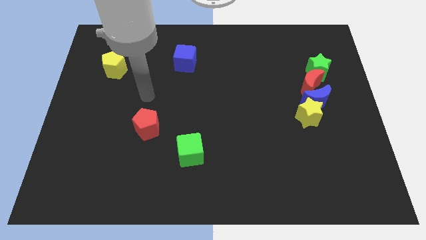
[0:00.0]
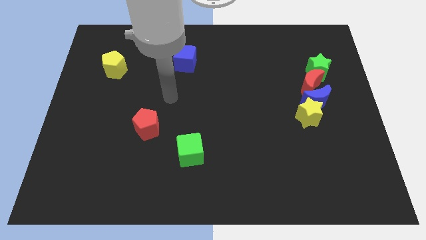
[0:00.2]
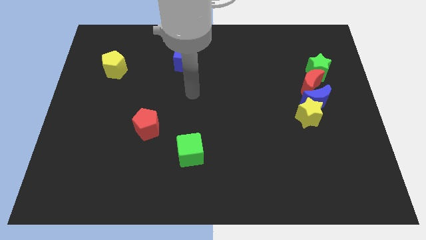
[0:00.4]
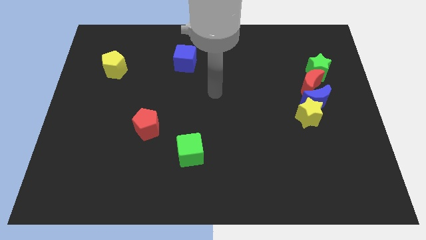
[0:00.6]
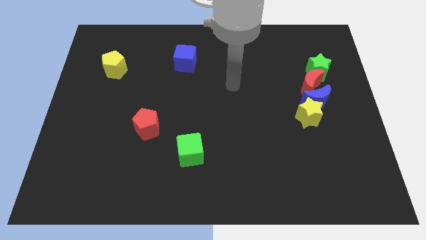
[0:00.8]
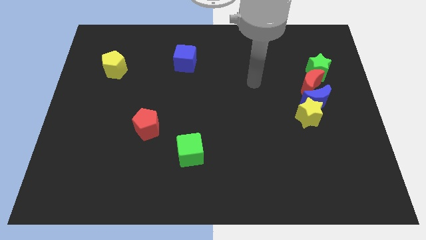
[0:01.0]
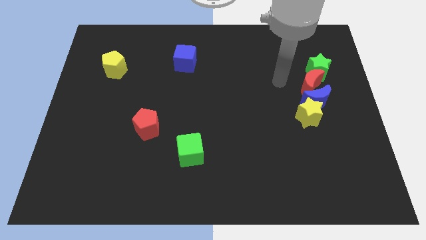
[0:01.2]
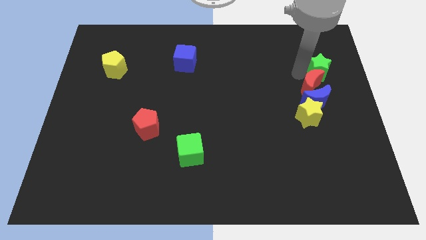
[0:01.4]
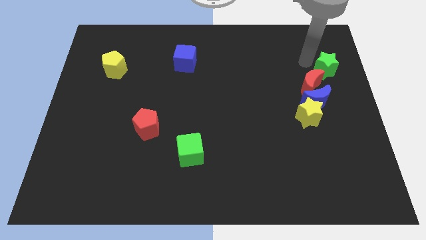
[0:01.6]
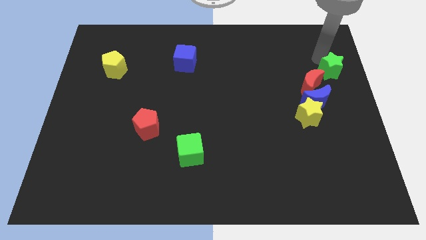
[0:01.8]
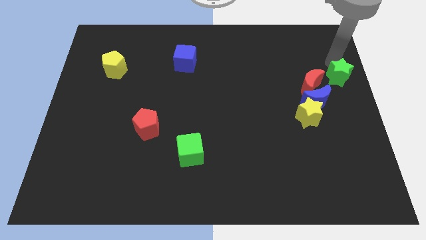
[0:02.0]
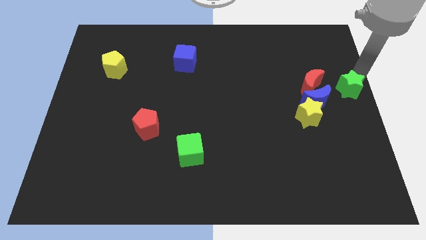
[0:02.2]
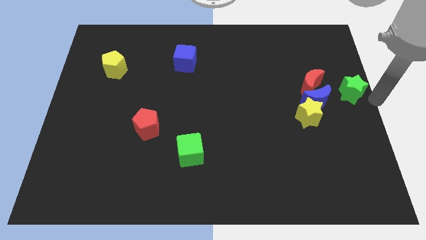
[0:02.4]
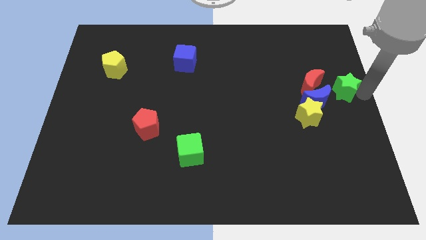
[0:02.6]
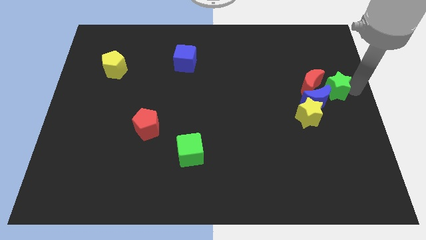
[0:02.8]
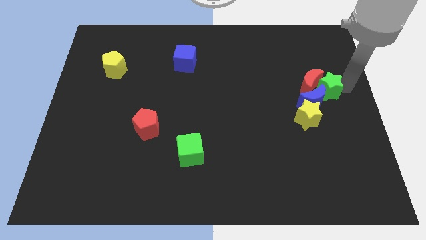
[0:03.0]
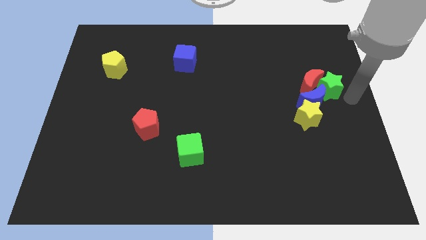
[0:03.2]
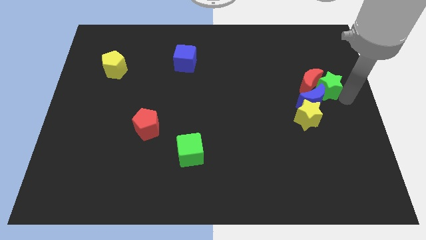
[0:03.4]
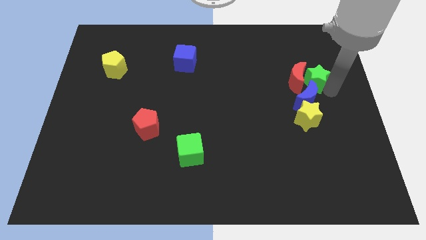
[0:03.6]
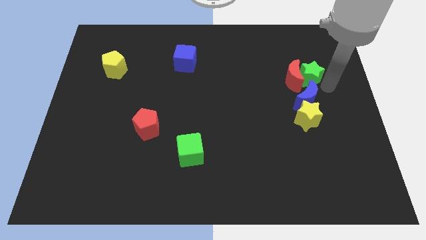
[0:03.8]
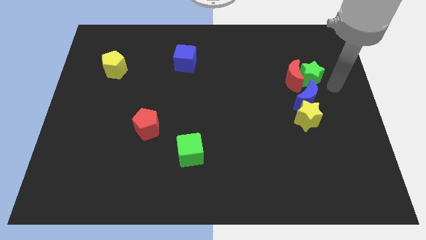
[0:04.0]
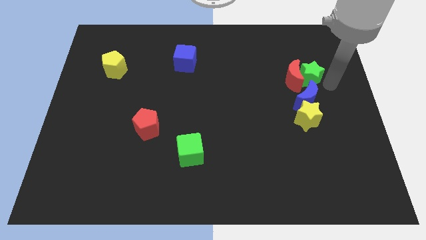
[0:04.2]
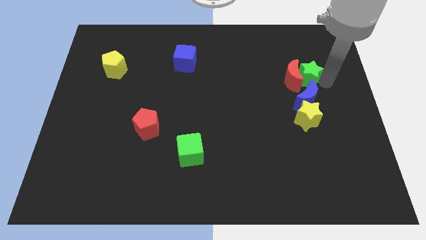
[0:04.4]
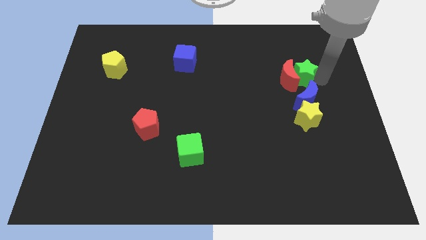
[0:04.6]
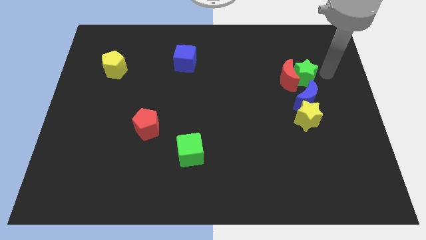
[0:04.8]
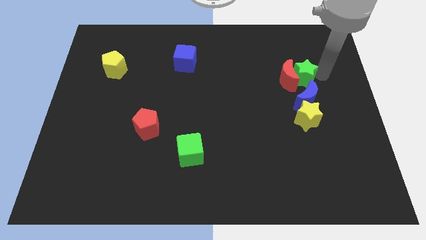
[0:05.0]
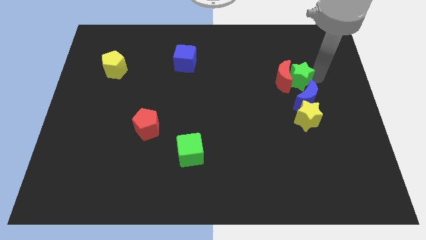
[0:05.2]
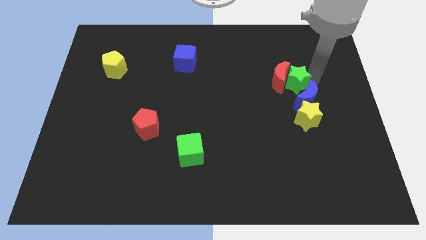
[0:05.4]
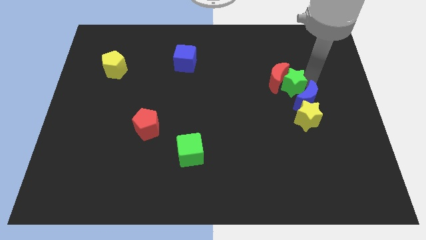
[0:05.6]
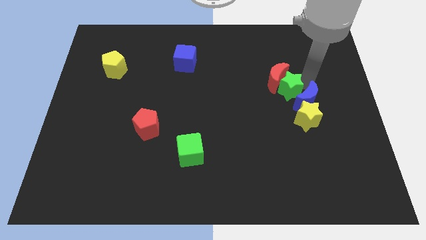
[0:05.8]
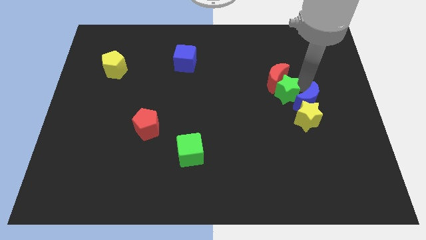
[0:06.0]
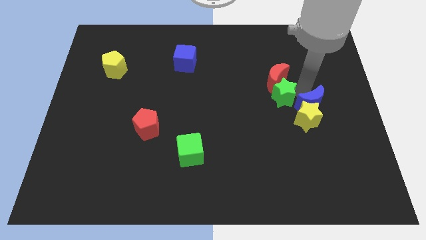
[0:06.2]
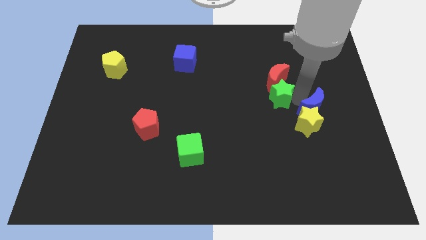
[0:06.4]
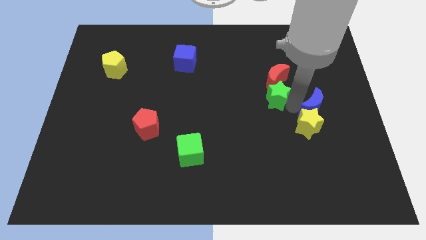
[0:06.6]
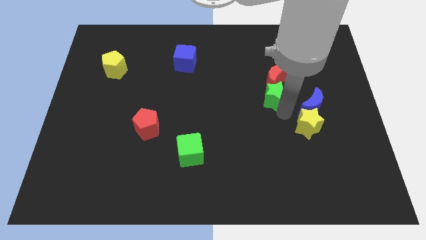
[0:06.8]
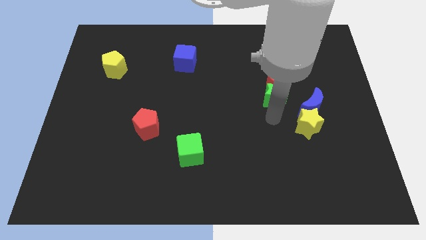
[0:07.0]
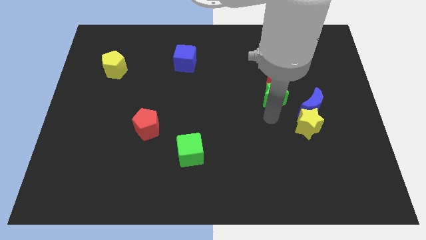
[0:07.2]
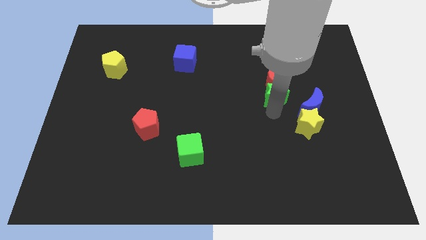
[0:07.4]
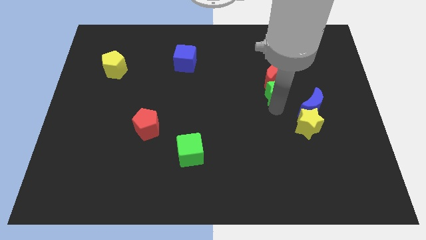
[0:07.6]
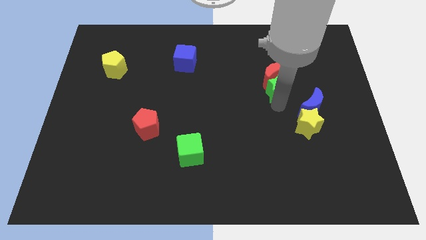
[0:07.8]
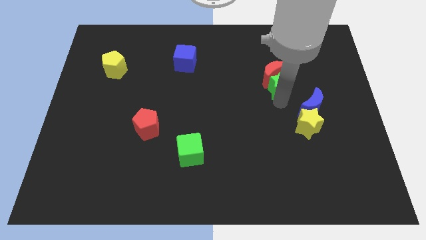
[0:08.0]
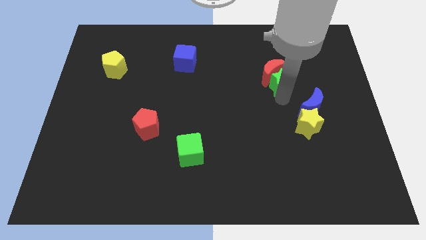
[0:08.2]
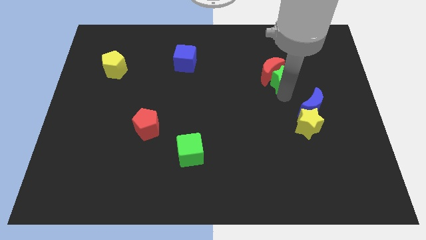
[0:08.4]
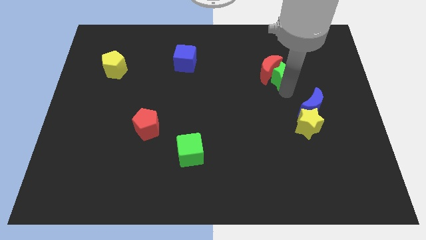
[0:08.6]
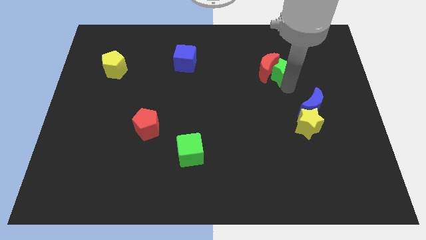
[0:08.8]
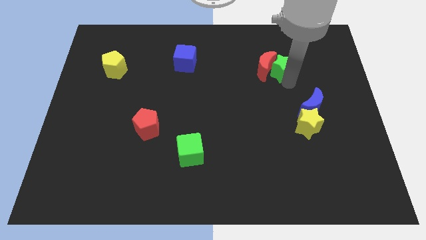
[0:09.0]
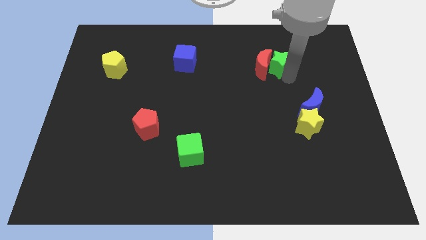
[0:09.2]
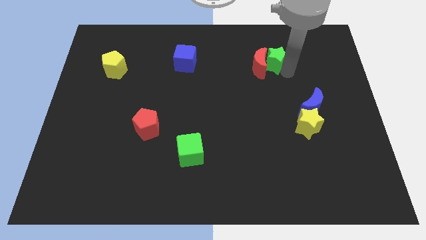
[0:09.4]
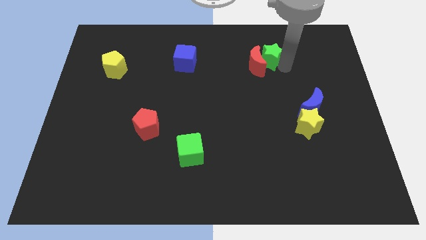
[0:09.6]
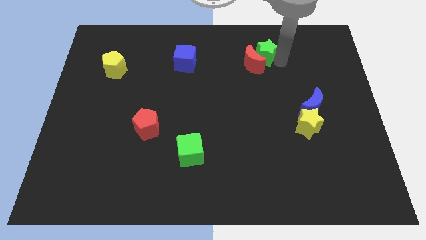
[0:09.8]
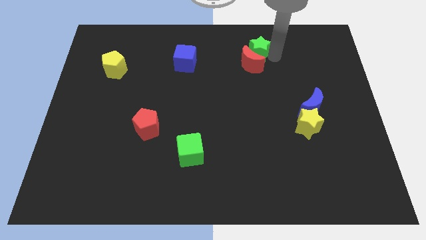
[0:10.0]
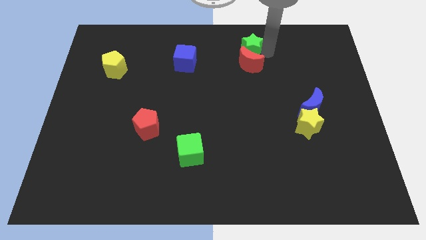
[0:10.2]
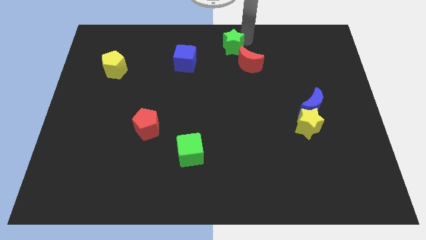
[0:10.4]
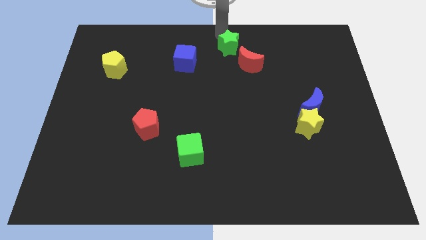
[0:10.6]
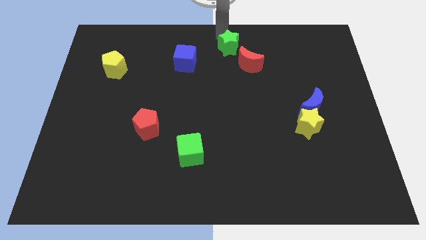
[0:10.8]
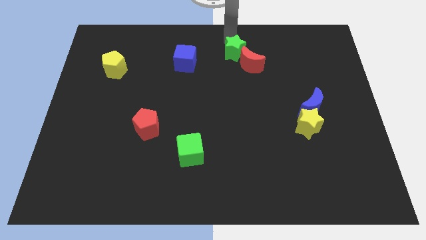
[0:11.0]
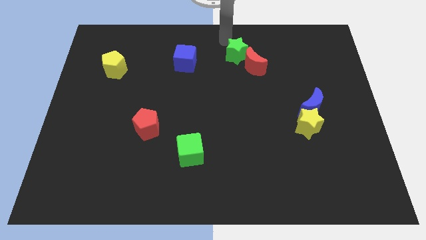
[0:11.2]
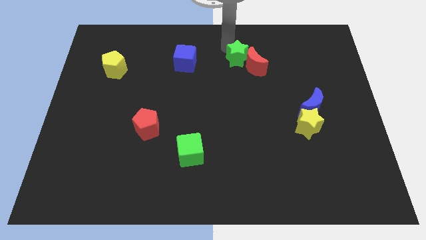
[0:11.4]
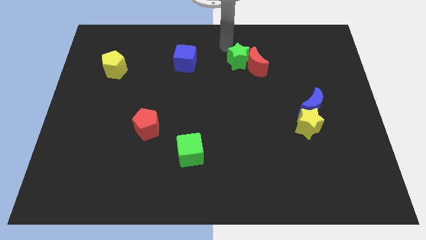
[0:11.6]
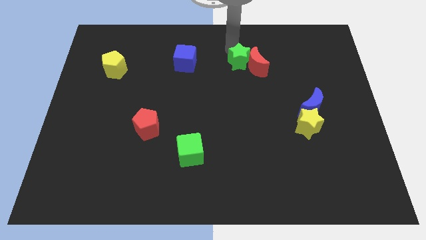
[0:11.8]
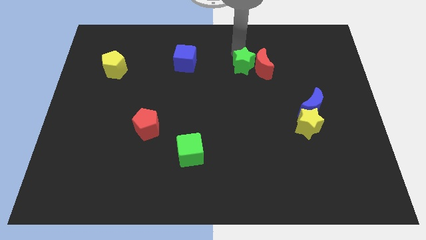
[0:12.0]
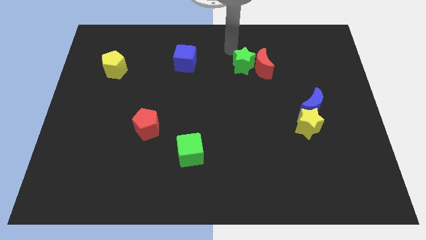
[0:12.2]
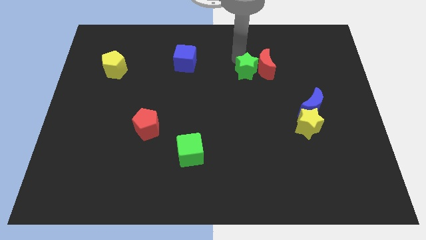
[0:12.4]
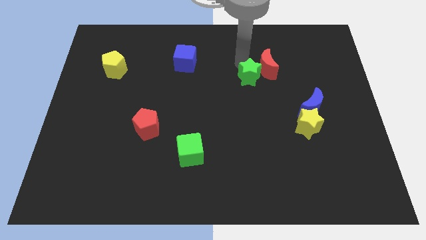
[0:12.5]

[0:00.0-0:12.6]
slide the green star to the center of the board
